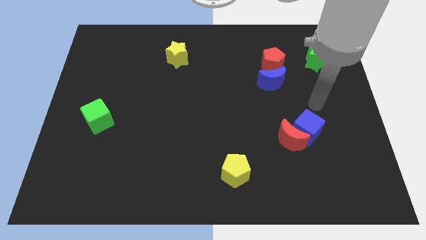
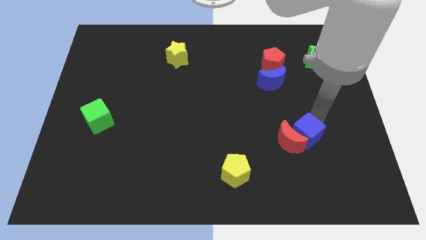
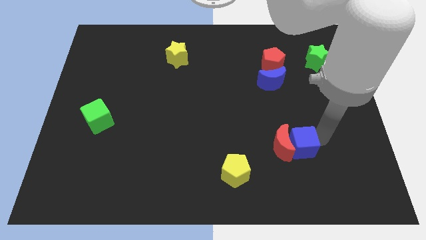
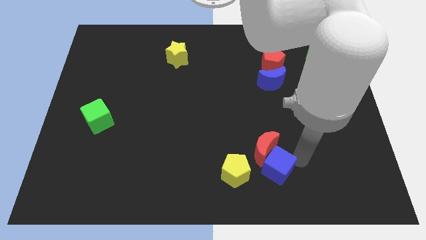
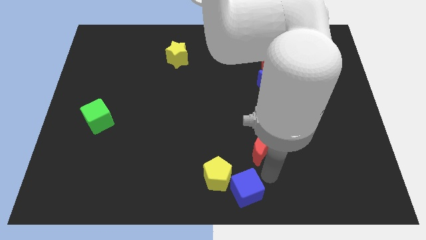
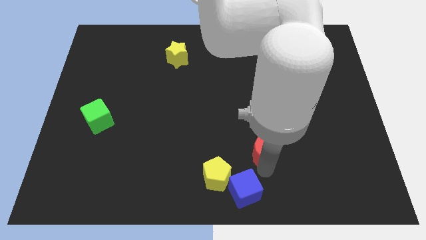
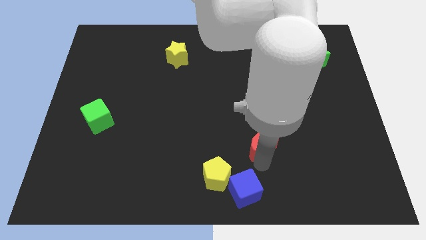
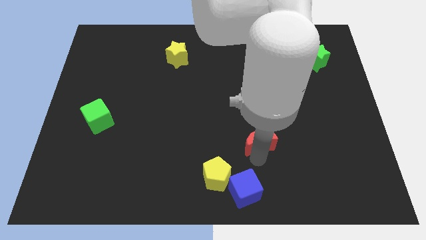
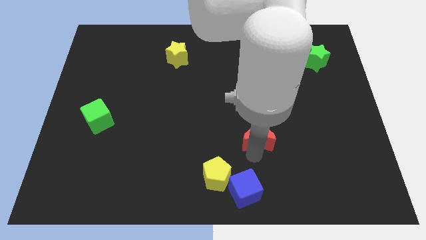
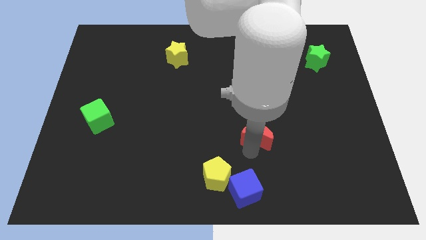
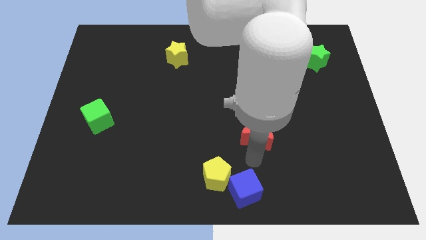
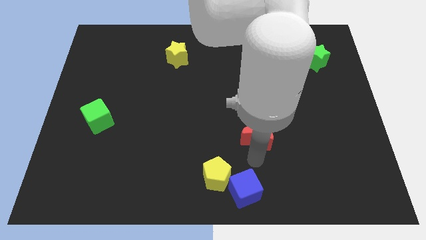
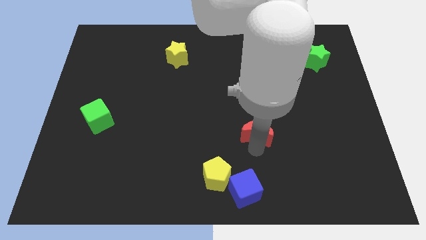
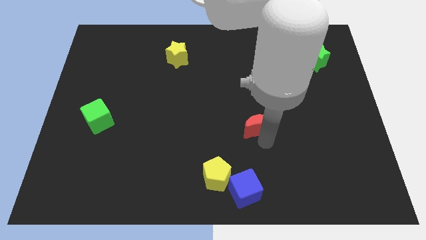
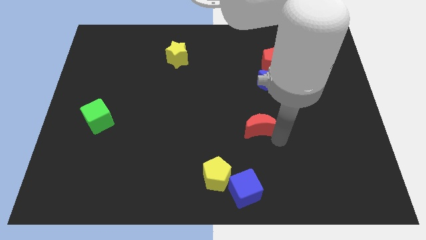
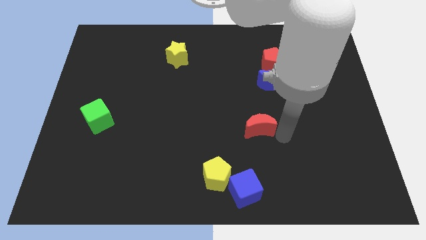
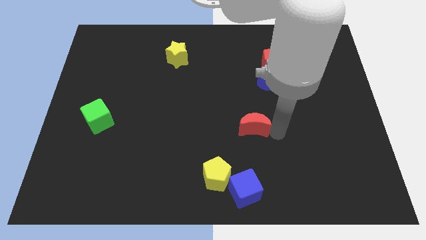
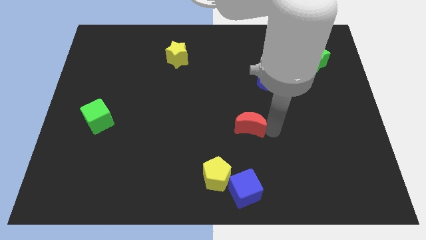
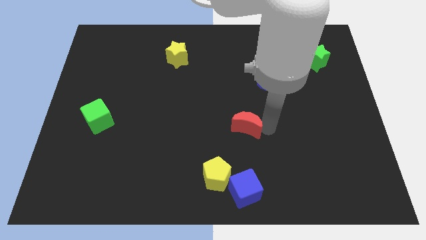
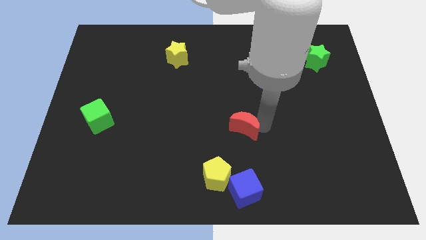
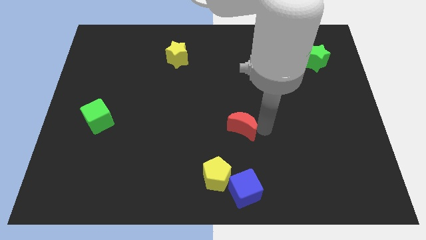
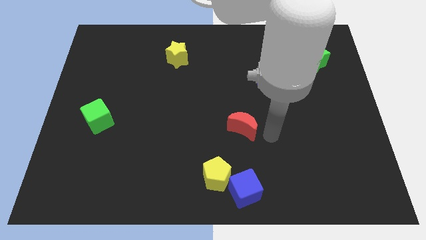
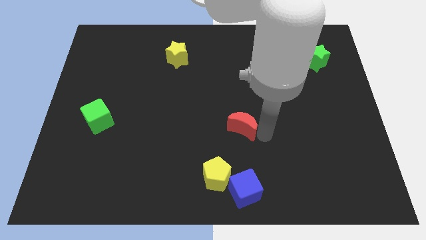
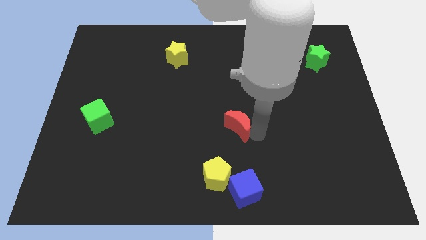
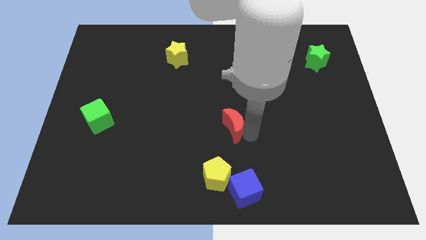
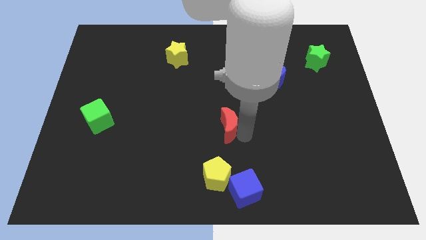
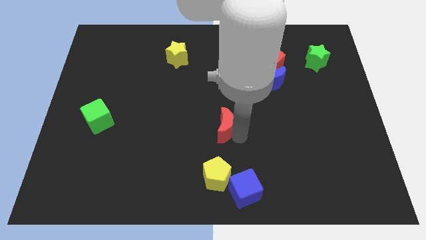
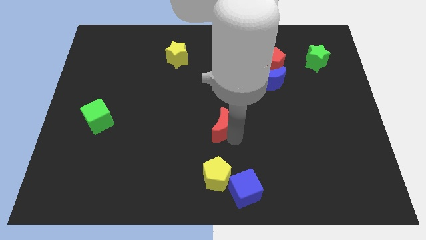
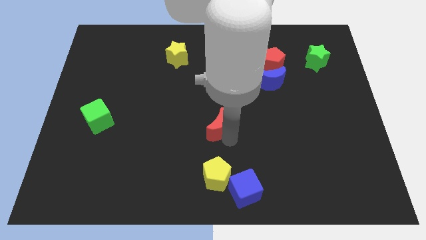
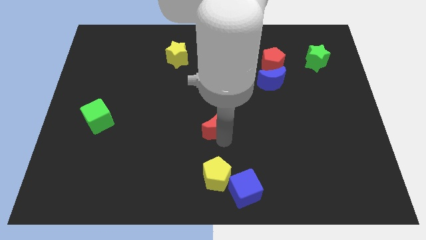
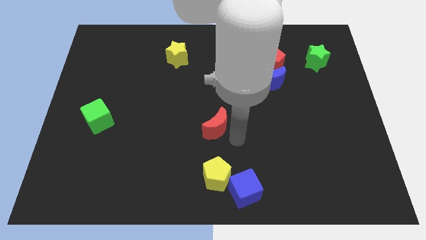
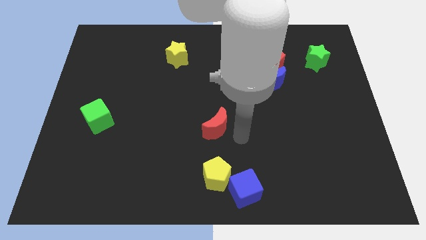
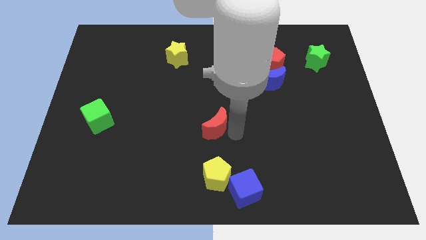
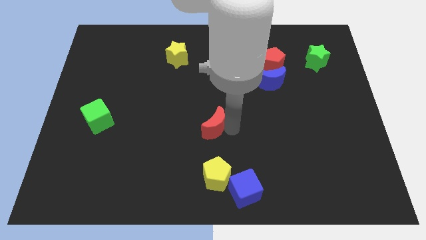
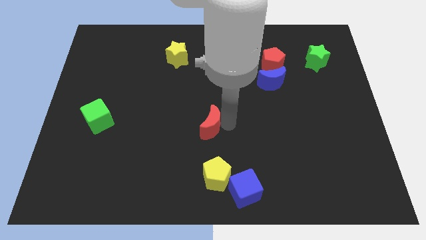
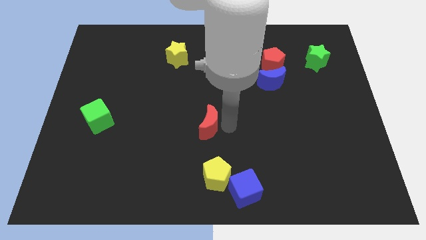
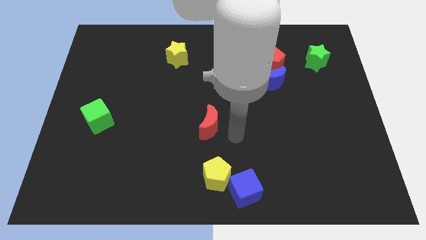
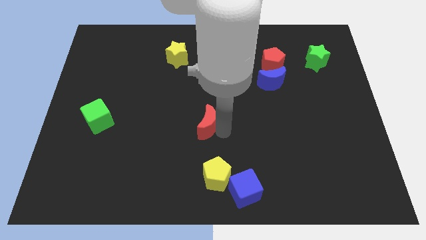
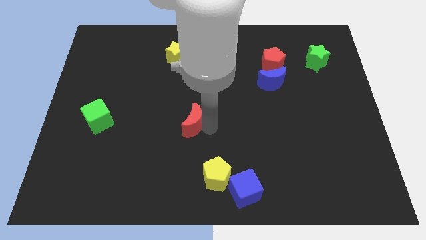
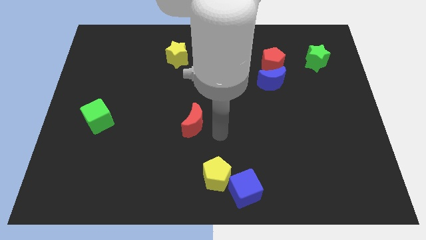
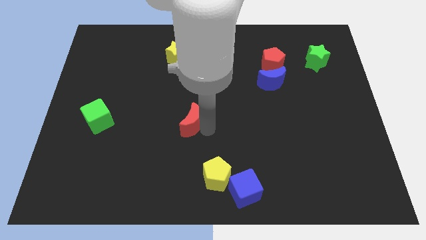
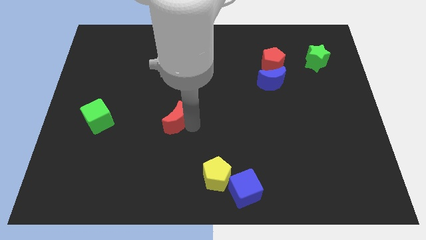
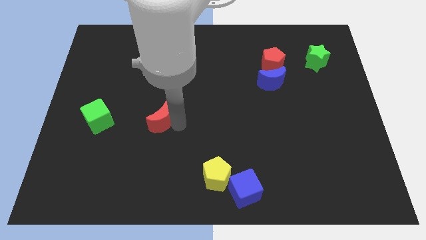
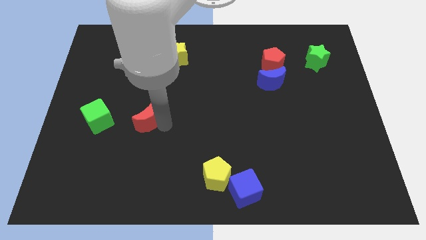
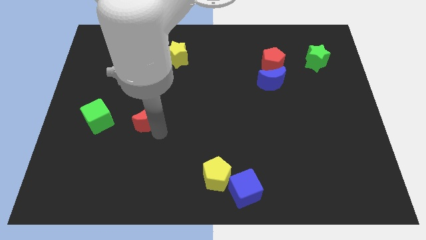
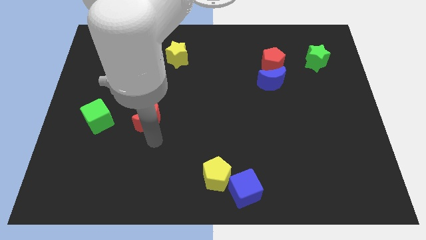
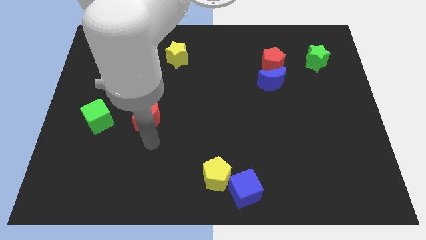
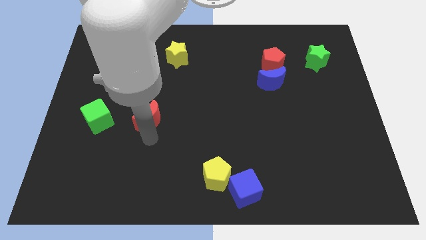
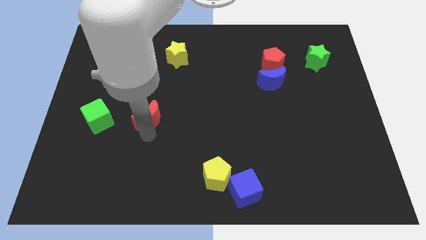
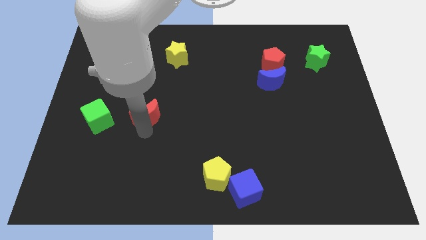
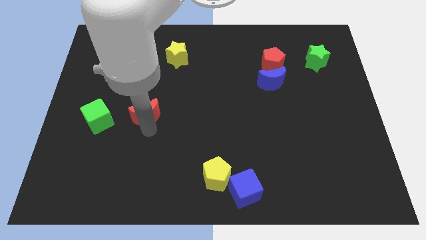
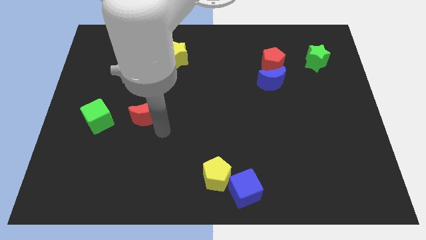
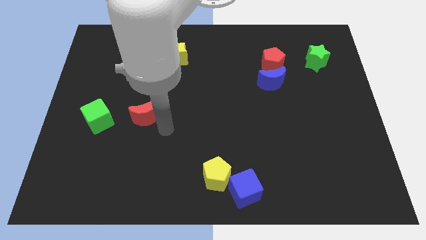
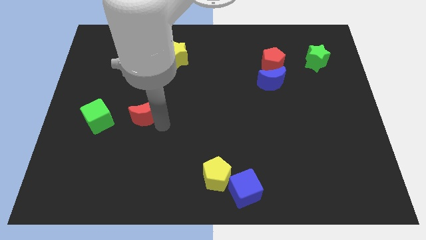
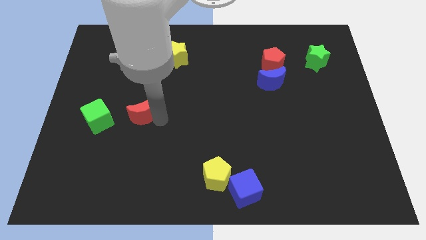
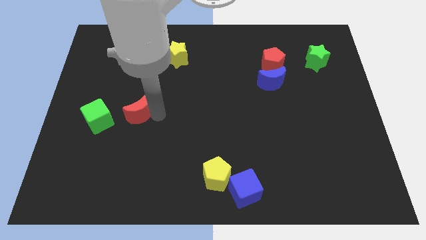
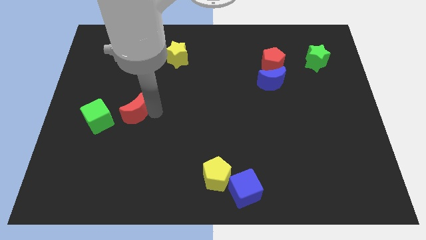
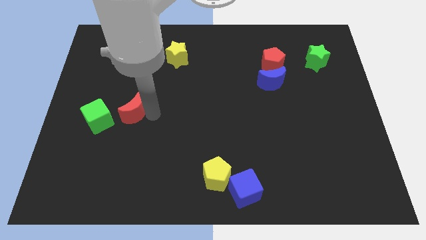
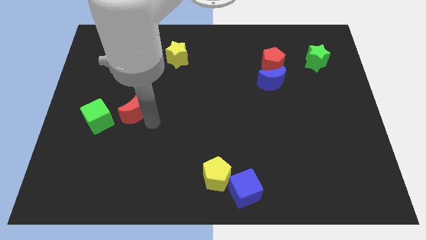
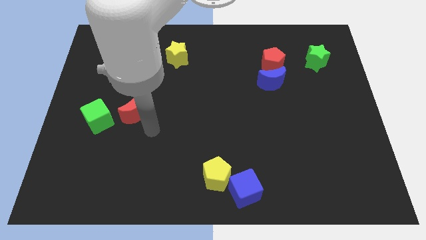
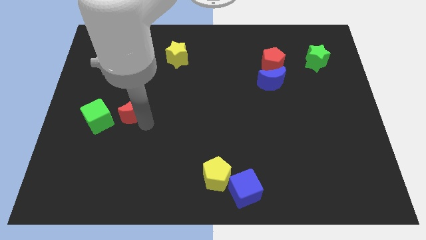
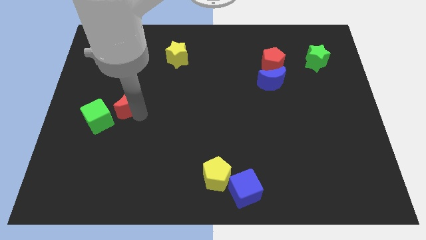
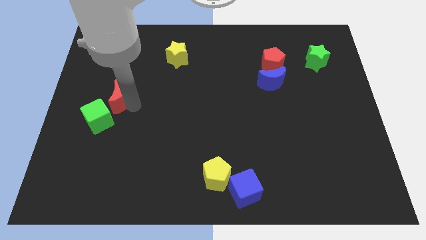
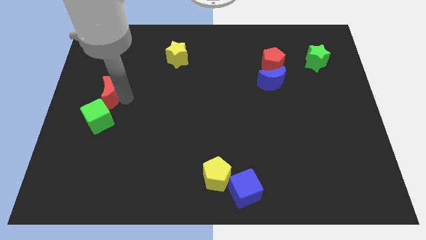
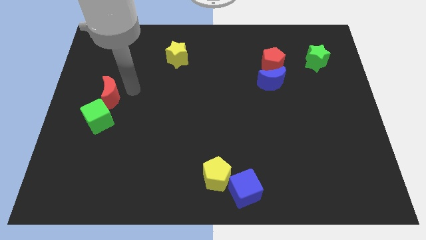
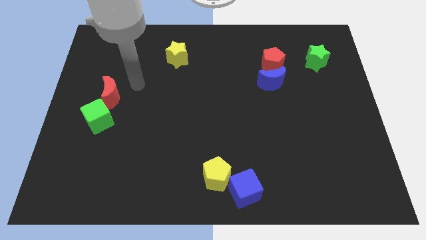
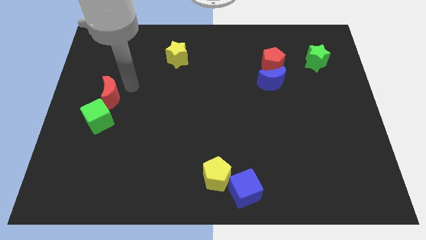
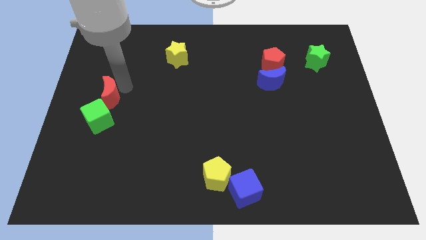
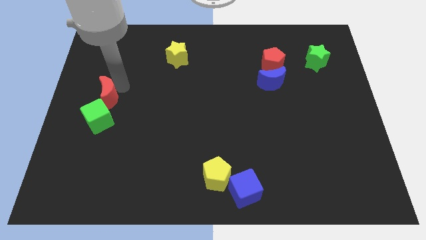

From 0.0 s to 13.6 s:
put the red moon to the center left
